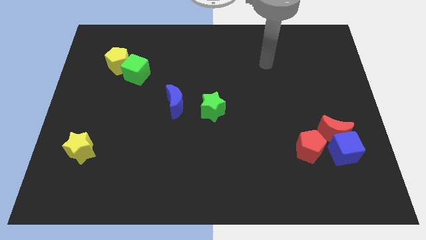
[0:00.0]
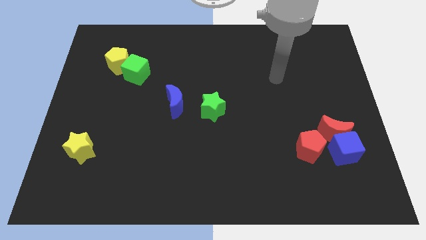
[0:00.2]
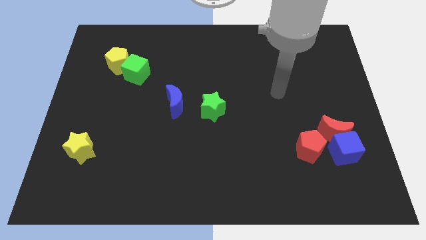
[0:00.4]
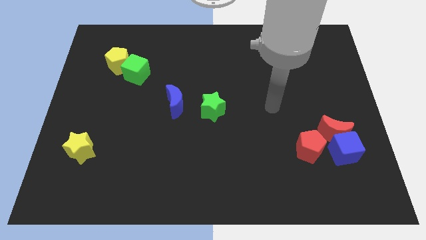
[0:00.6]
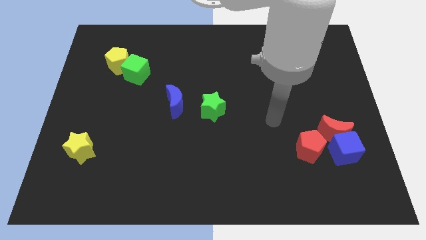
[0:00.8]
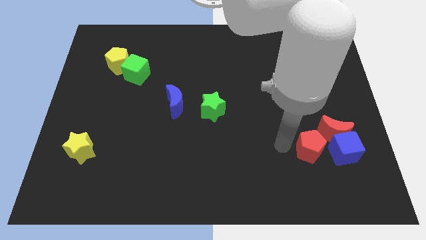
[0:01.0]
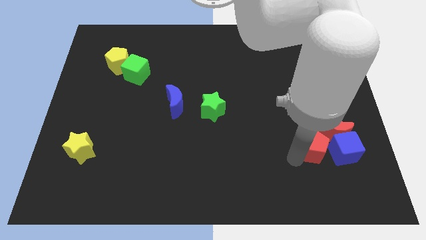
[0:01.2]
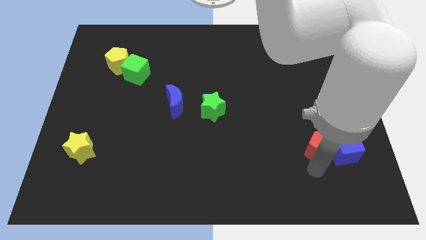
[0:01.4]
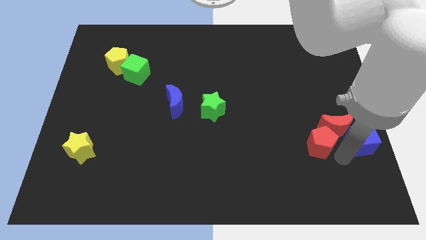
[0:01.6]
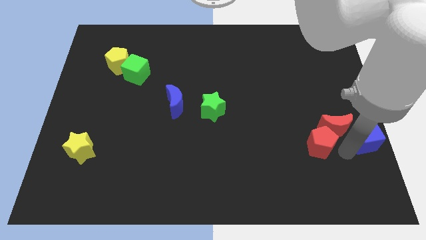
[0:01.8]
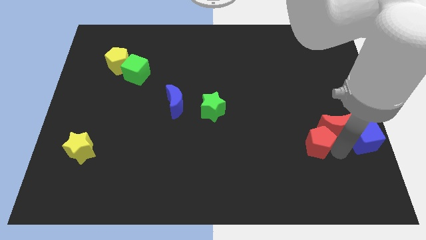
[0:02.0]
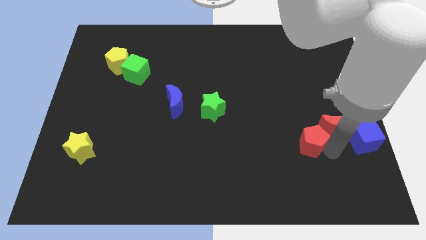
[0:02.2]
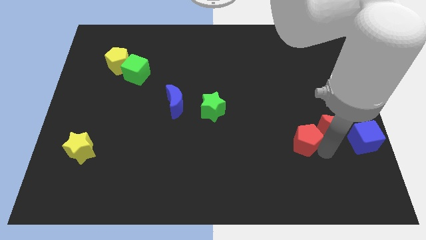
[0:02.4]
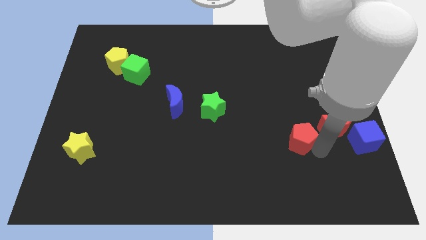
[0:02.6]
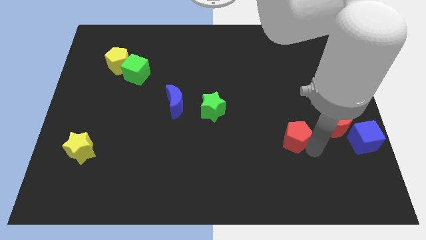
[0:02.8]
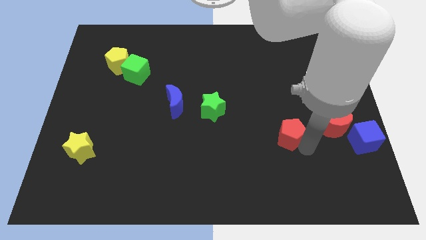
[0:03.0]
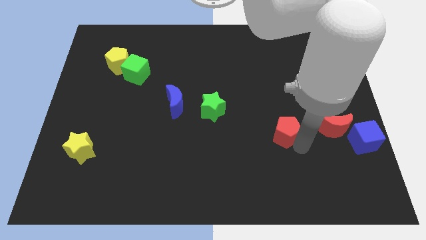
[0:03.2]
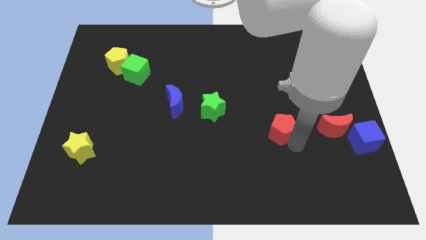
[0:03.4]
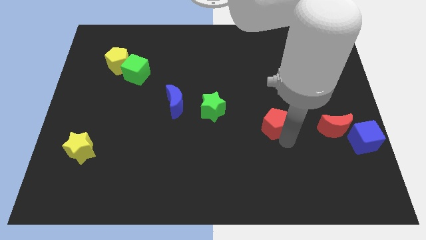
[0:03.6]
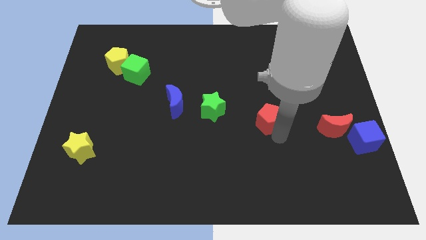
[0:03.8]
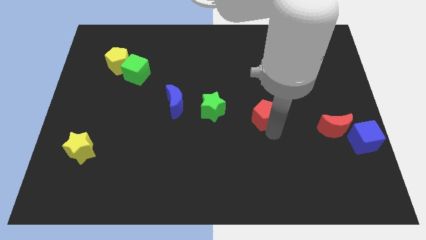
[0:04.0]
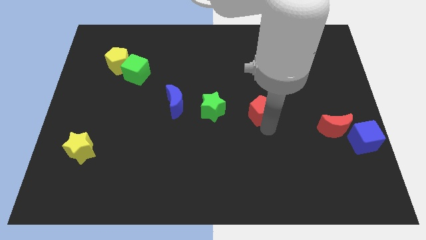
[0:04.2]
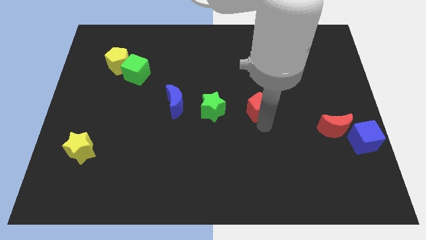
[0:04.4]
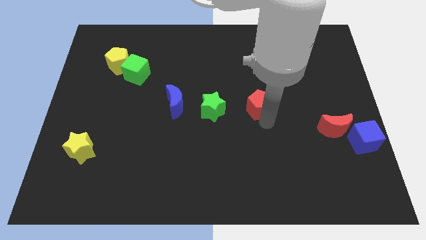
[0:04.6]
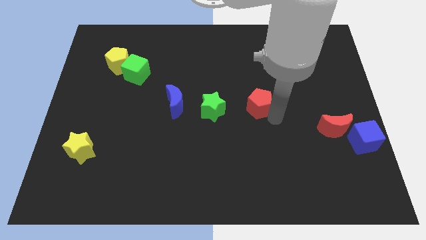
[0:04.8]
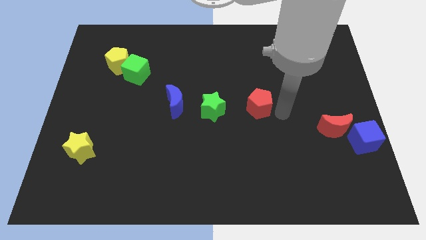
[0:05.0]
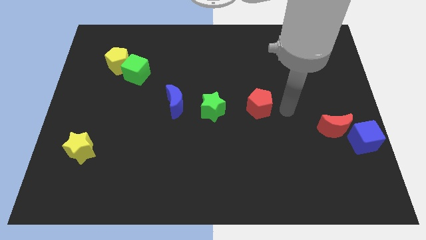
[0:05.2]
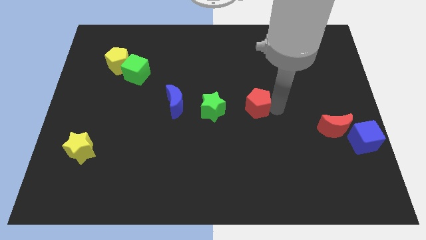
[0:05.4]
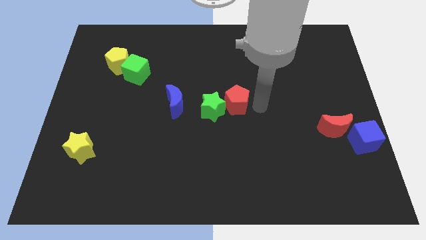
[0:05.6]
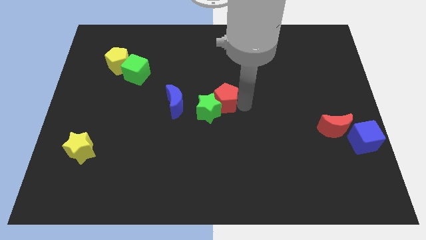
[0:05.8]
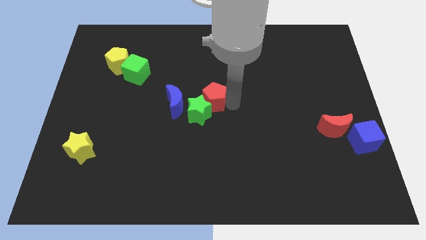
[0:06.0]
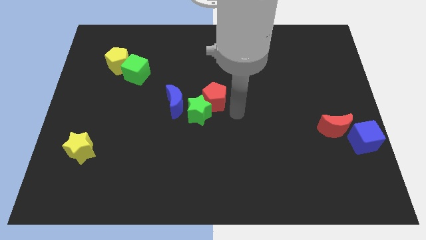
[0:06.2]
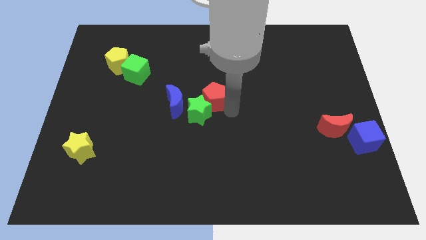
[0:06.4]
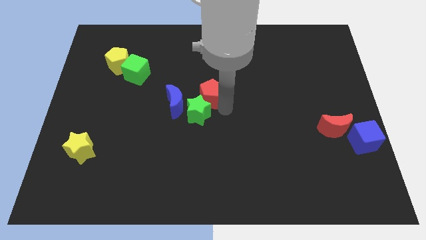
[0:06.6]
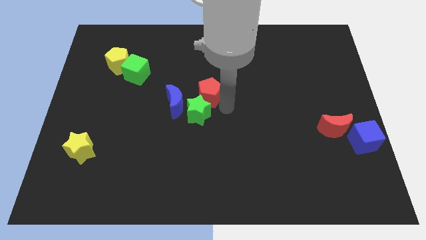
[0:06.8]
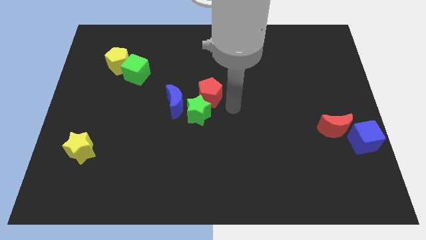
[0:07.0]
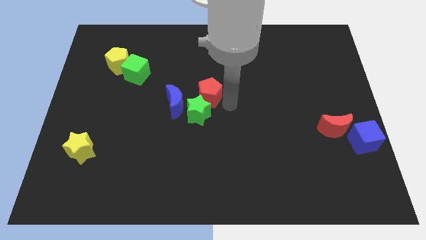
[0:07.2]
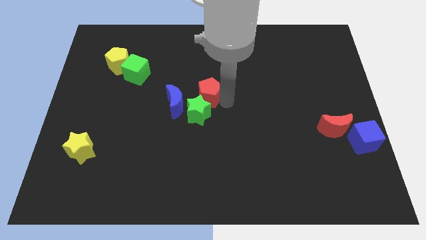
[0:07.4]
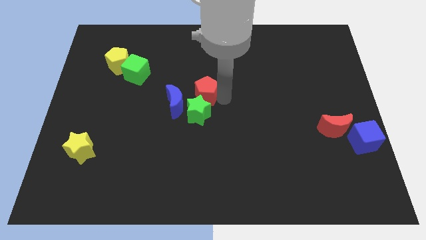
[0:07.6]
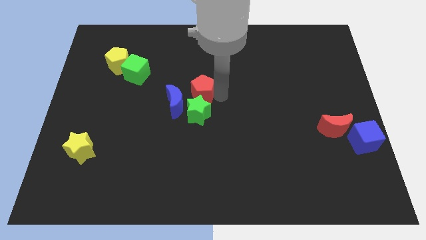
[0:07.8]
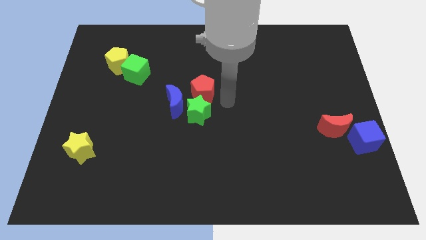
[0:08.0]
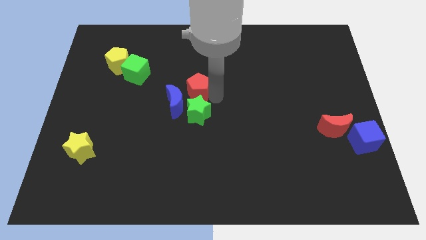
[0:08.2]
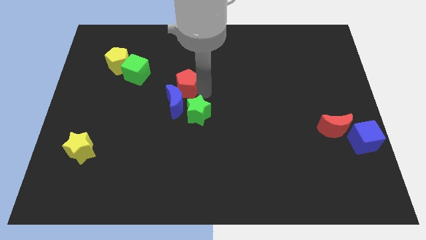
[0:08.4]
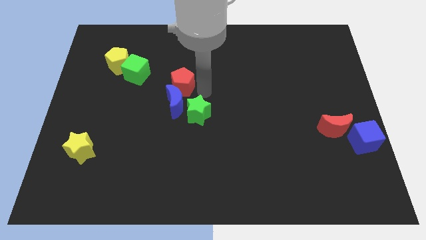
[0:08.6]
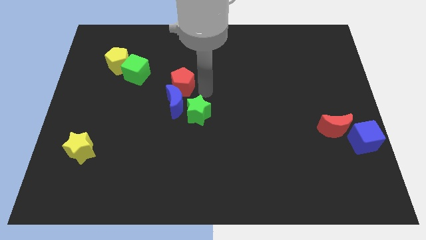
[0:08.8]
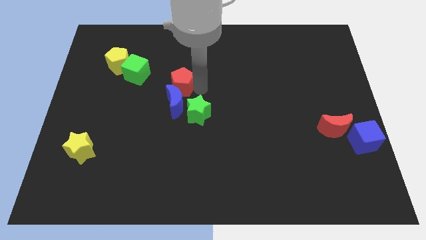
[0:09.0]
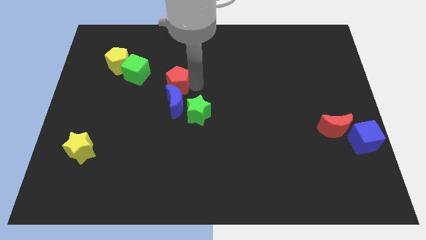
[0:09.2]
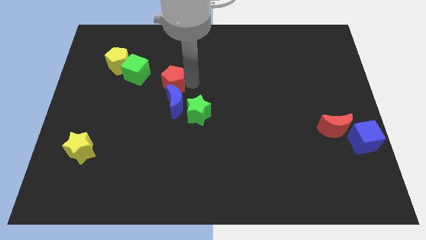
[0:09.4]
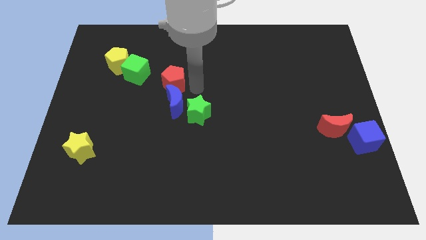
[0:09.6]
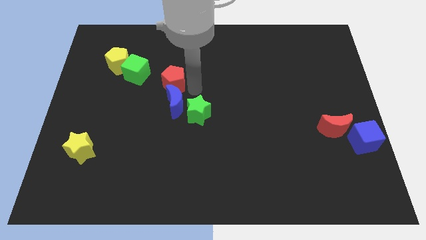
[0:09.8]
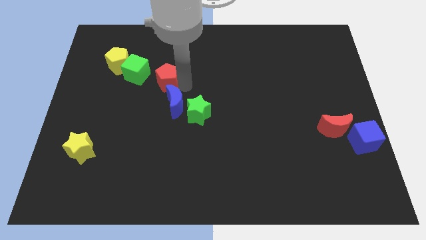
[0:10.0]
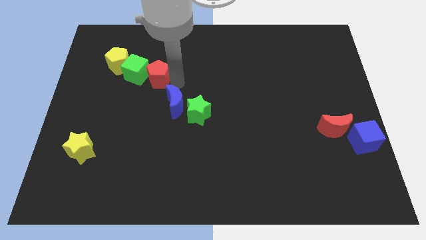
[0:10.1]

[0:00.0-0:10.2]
move the red pentagon to the green cube

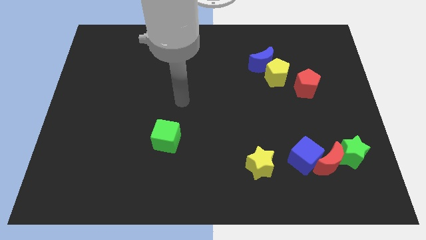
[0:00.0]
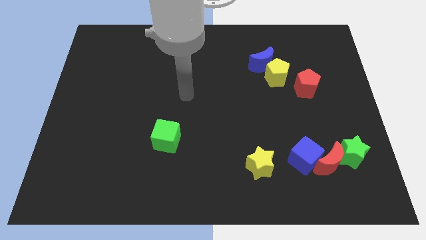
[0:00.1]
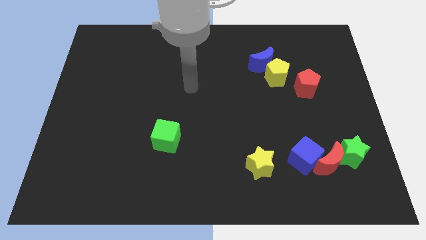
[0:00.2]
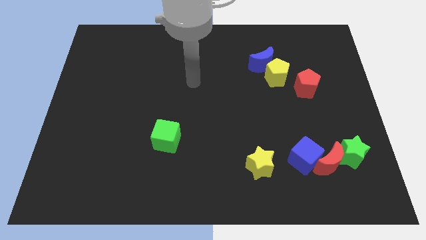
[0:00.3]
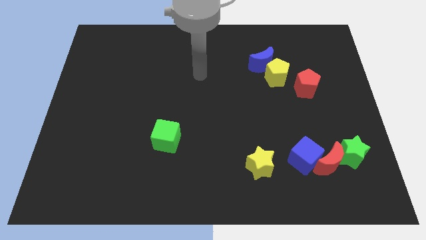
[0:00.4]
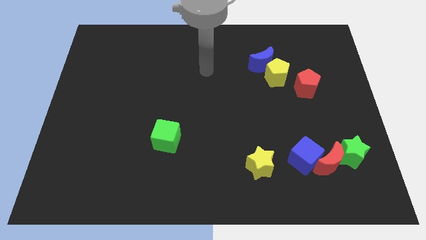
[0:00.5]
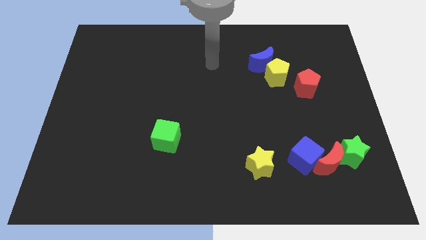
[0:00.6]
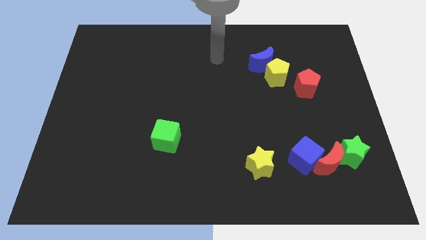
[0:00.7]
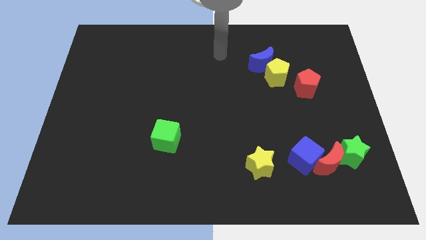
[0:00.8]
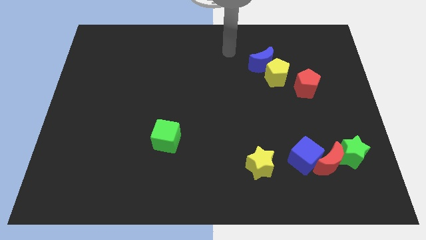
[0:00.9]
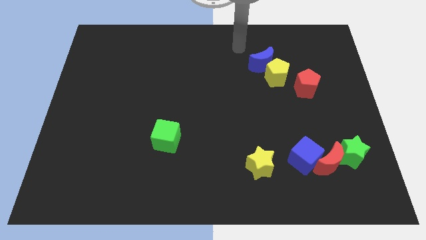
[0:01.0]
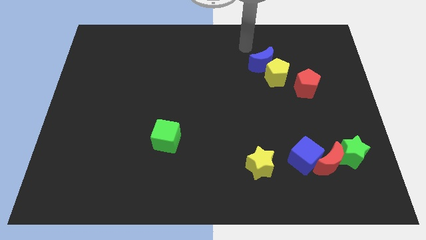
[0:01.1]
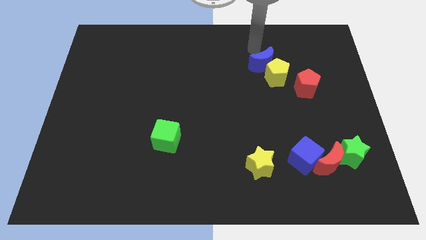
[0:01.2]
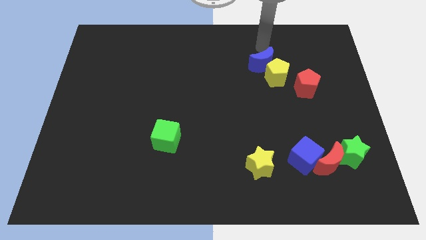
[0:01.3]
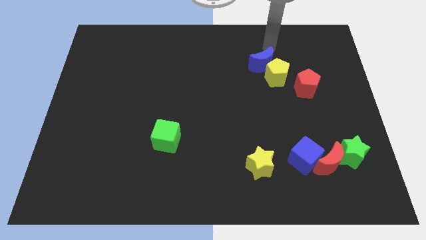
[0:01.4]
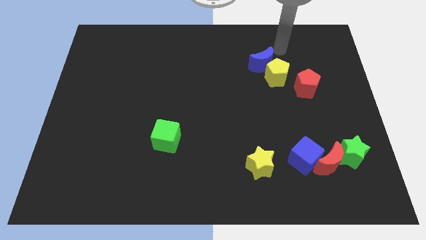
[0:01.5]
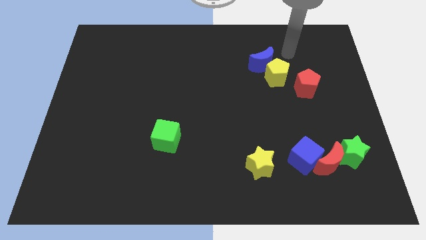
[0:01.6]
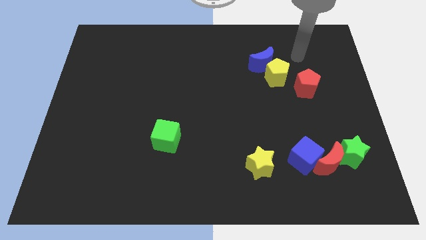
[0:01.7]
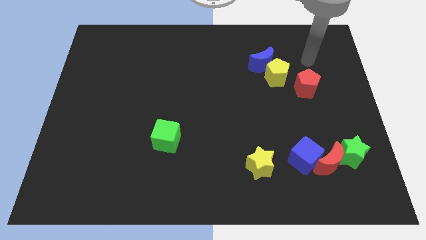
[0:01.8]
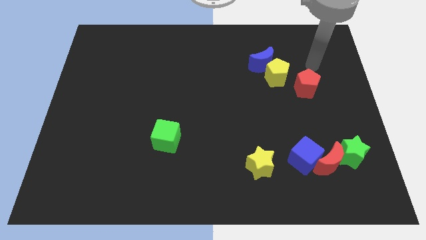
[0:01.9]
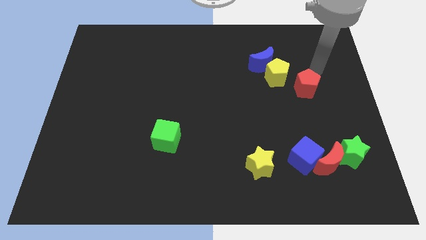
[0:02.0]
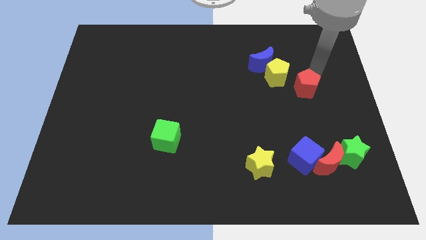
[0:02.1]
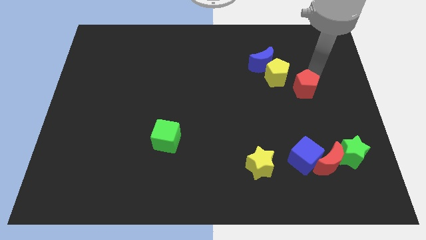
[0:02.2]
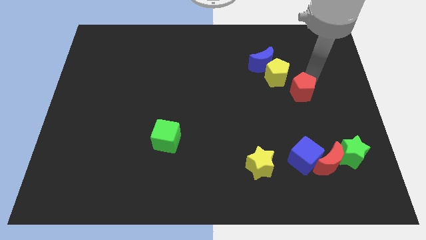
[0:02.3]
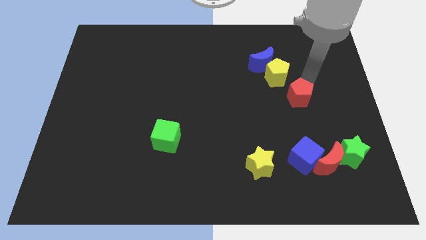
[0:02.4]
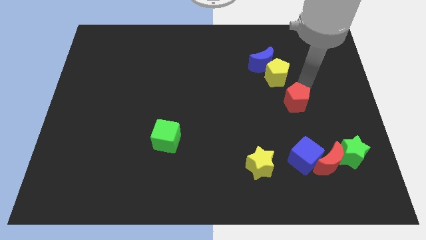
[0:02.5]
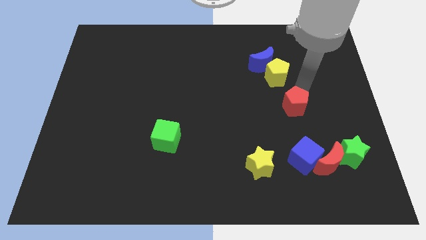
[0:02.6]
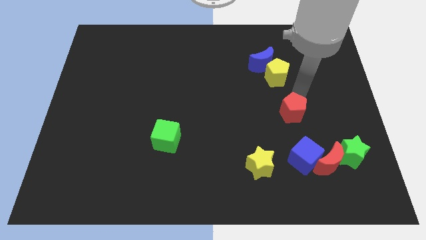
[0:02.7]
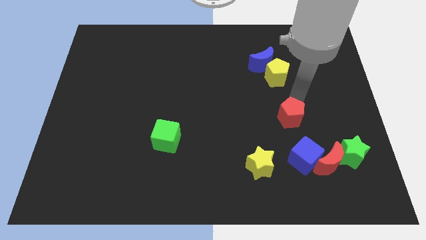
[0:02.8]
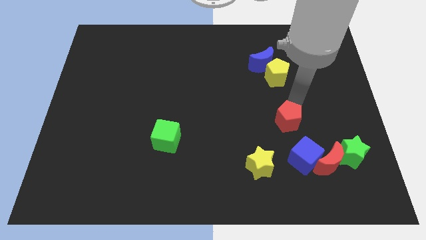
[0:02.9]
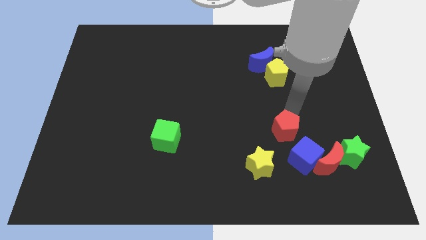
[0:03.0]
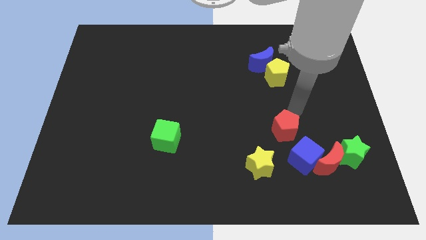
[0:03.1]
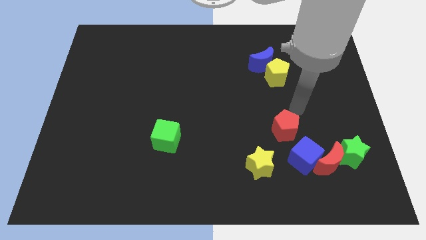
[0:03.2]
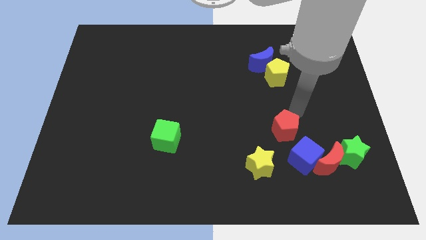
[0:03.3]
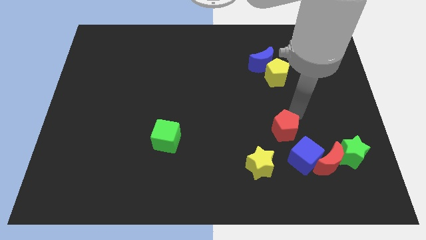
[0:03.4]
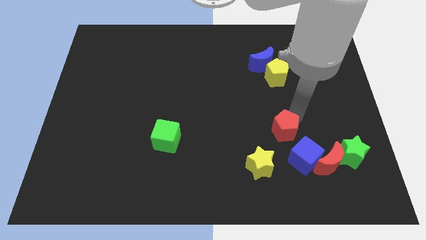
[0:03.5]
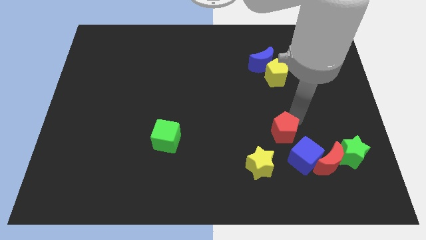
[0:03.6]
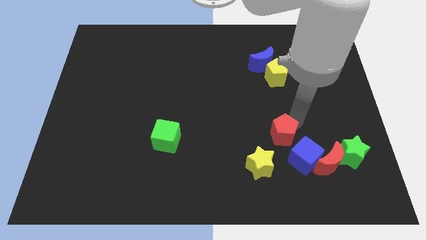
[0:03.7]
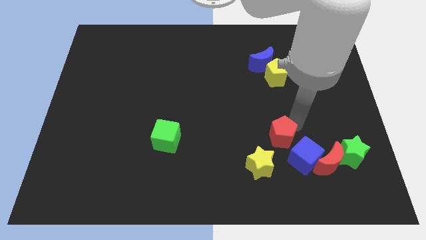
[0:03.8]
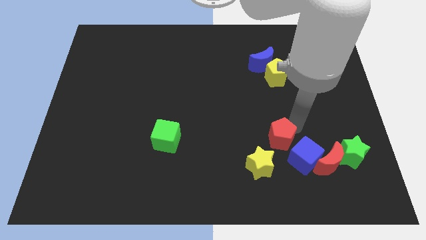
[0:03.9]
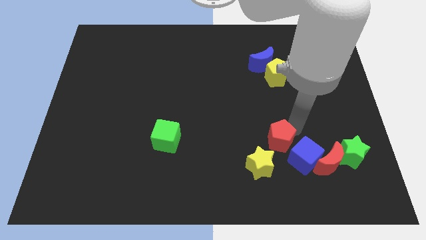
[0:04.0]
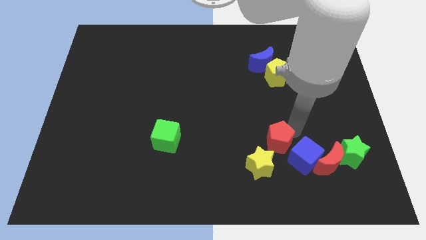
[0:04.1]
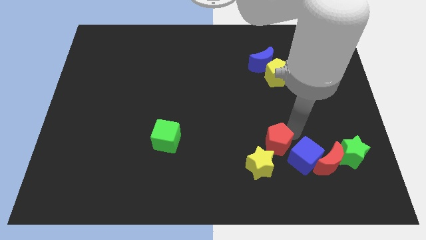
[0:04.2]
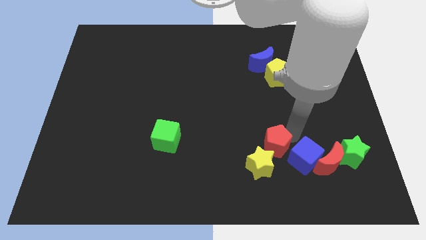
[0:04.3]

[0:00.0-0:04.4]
move the red pentagon close to the yellow star
